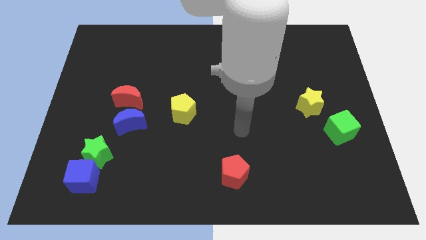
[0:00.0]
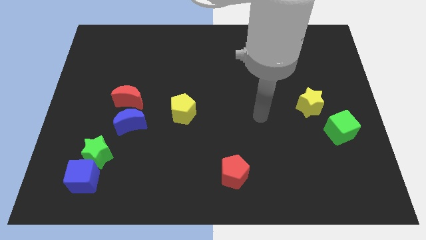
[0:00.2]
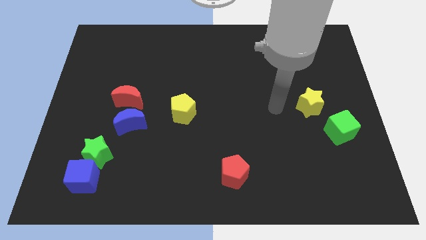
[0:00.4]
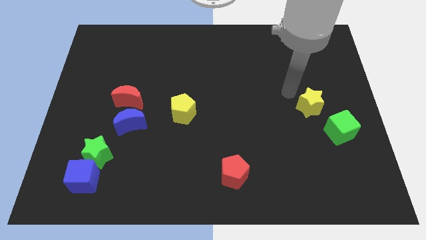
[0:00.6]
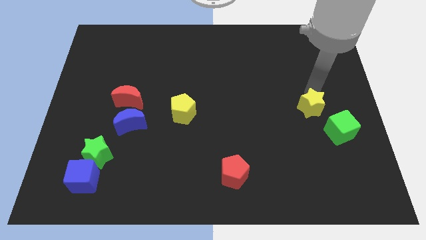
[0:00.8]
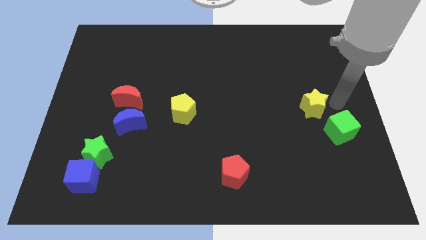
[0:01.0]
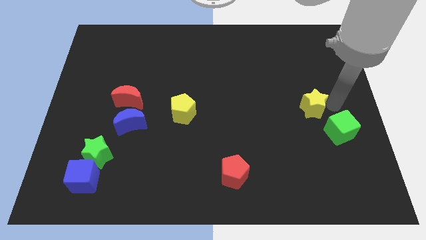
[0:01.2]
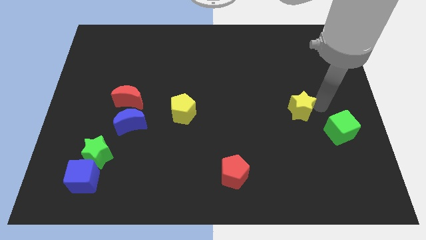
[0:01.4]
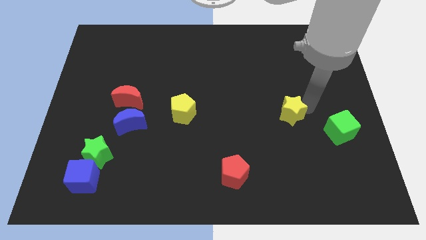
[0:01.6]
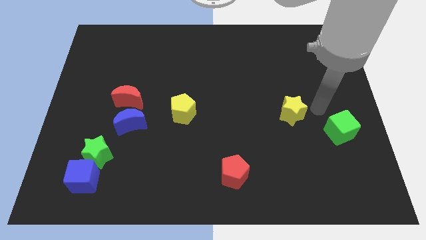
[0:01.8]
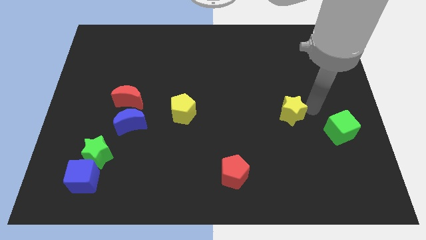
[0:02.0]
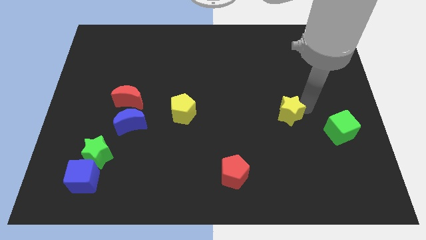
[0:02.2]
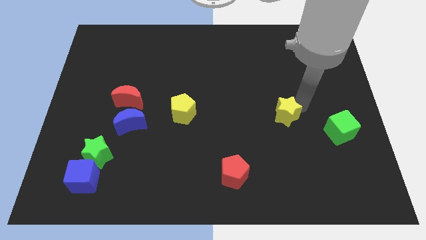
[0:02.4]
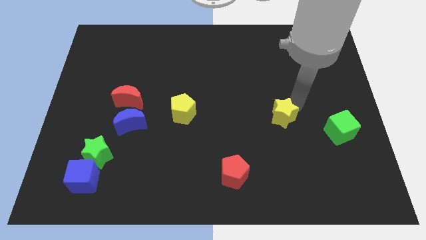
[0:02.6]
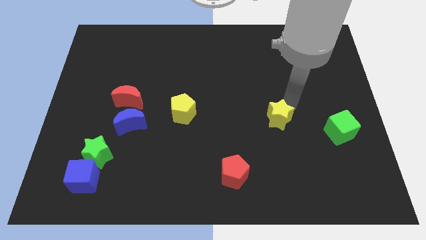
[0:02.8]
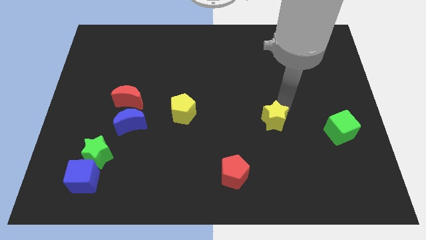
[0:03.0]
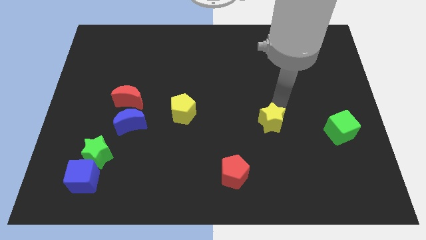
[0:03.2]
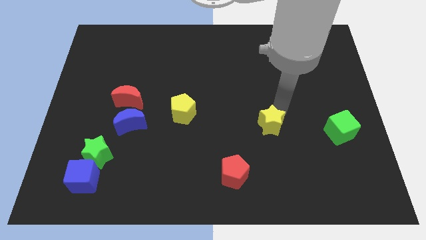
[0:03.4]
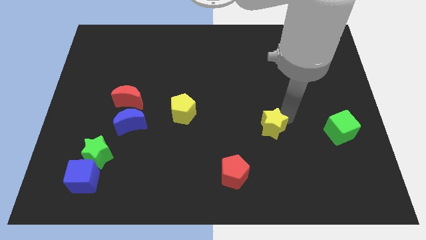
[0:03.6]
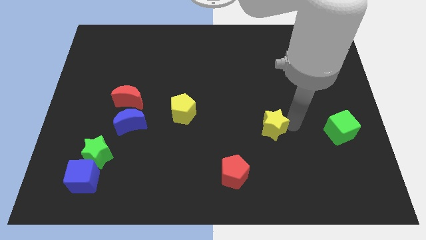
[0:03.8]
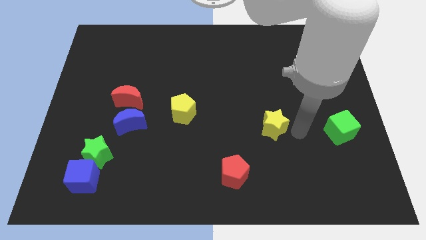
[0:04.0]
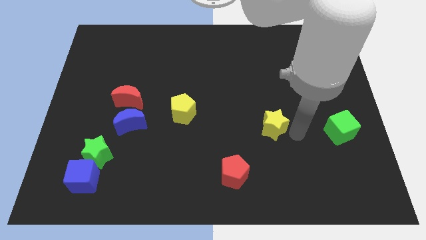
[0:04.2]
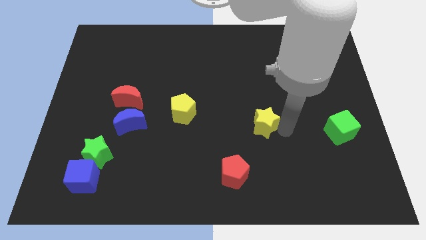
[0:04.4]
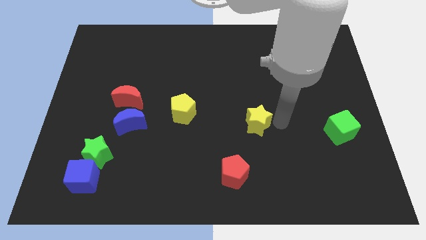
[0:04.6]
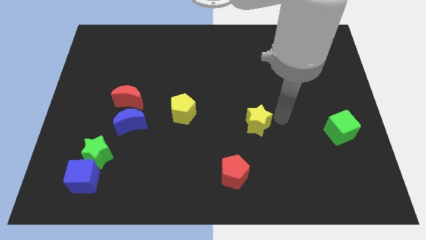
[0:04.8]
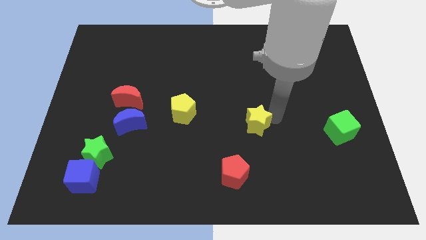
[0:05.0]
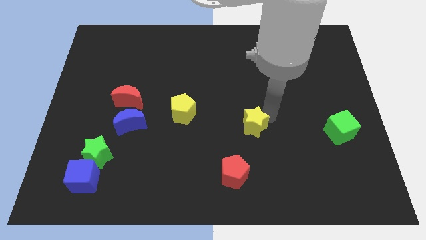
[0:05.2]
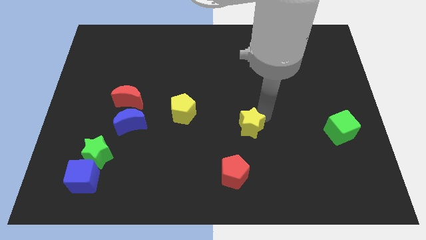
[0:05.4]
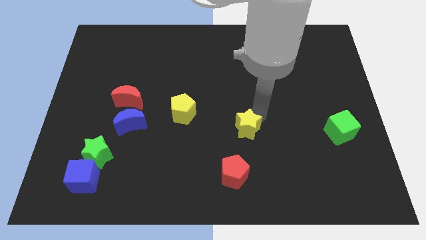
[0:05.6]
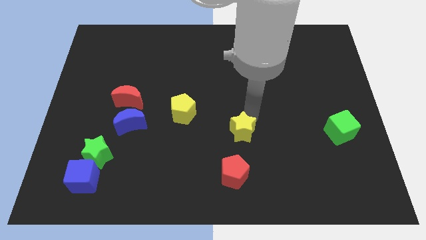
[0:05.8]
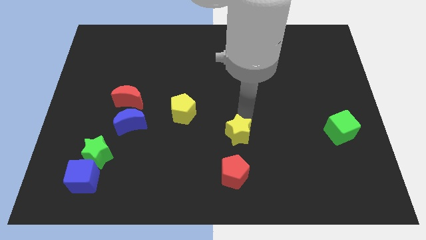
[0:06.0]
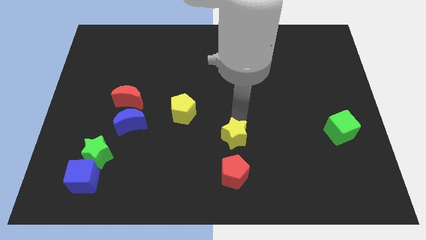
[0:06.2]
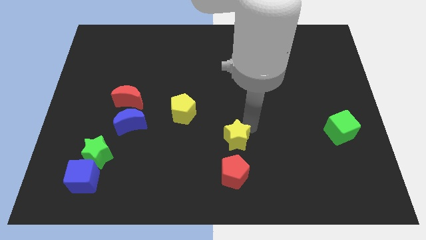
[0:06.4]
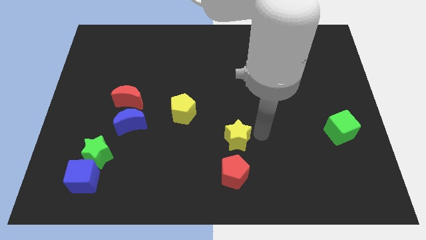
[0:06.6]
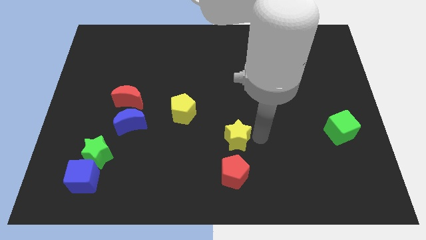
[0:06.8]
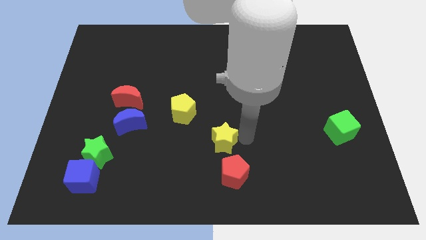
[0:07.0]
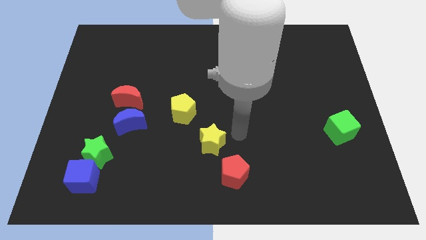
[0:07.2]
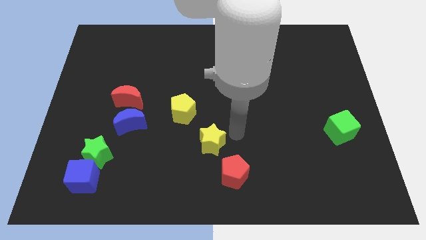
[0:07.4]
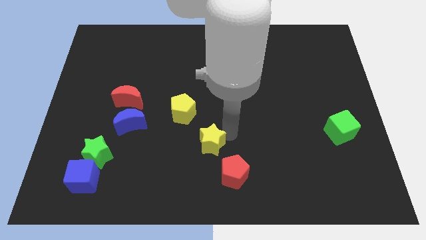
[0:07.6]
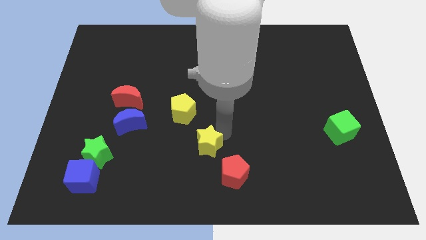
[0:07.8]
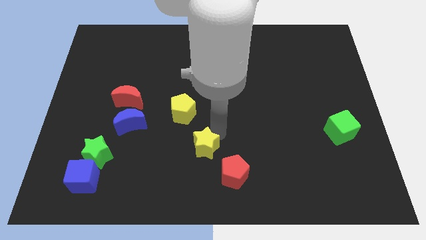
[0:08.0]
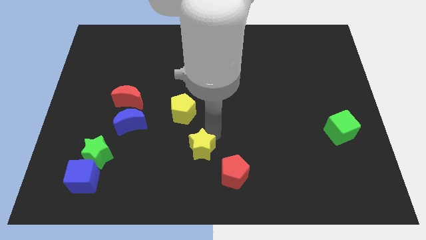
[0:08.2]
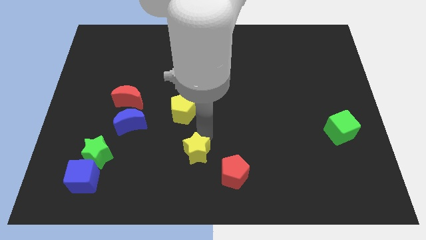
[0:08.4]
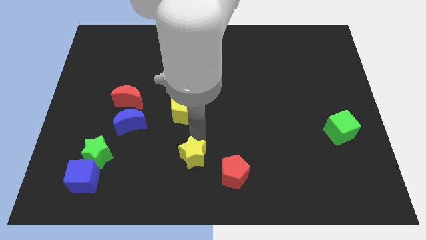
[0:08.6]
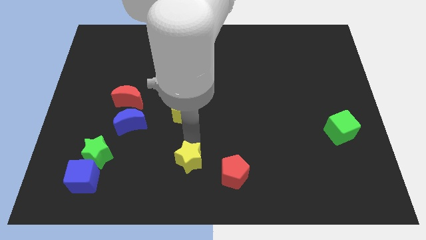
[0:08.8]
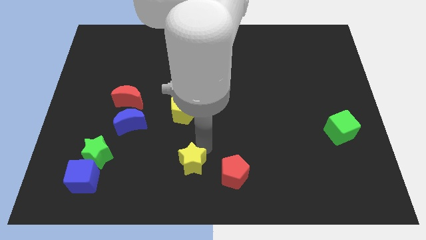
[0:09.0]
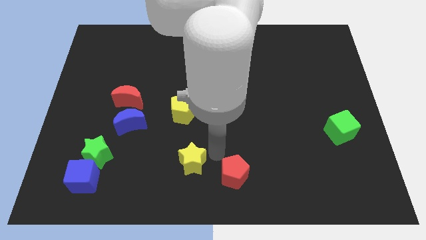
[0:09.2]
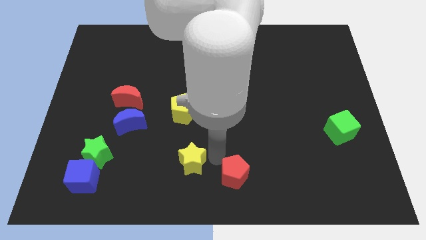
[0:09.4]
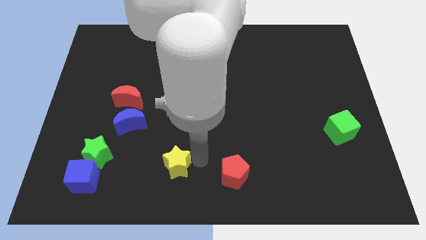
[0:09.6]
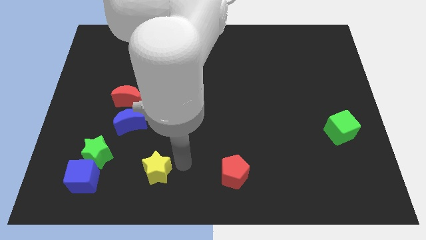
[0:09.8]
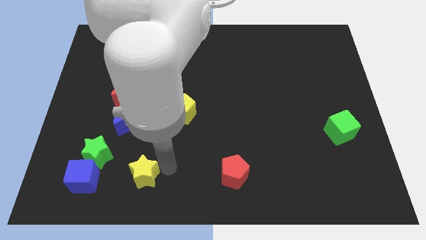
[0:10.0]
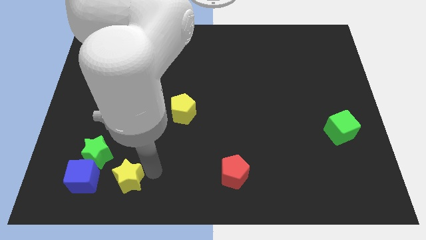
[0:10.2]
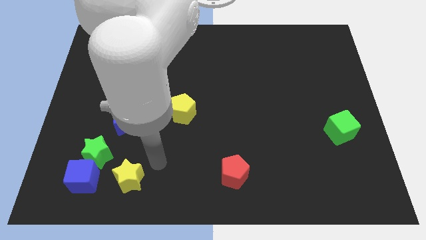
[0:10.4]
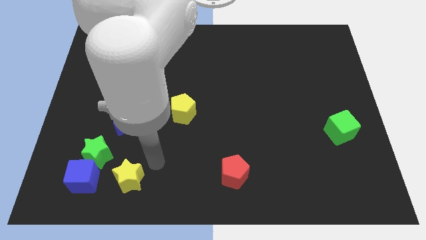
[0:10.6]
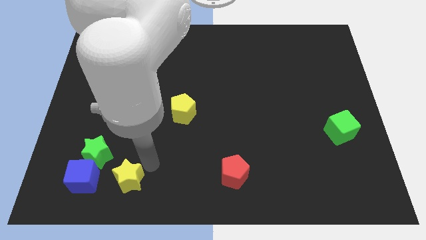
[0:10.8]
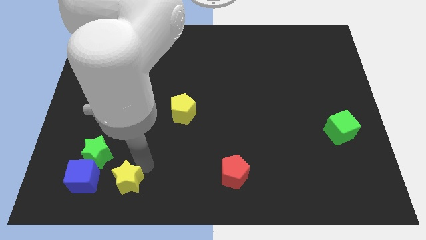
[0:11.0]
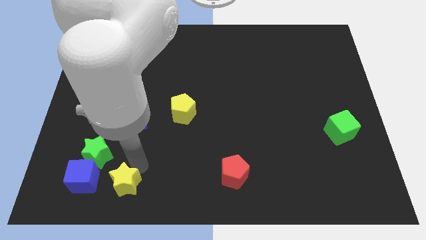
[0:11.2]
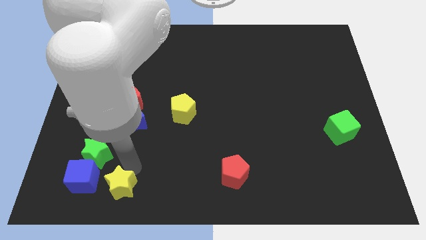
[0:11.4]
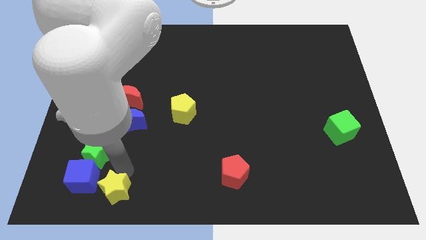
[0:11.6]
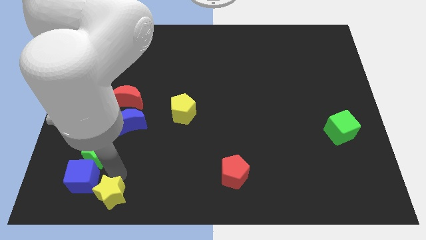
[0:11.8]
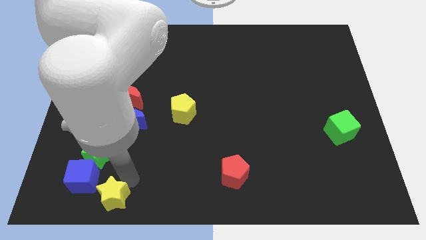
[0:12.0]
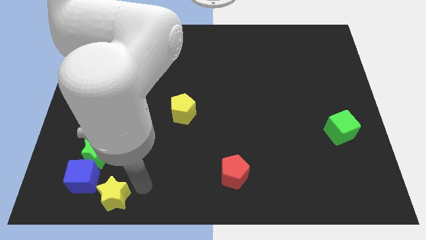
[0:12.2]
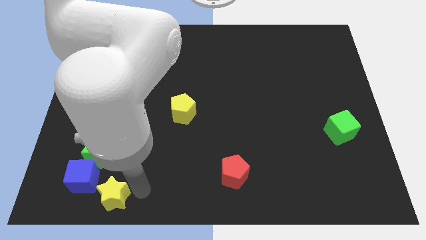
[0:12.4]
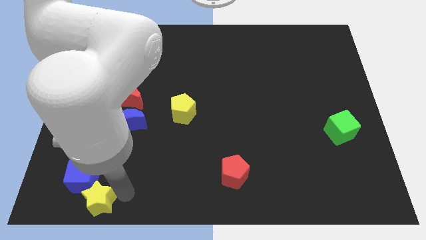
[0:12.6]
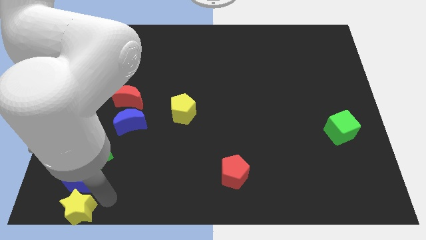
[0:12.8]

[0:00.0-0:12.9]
move the yellow star to the lower left corner

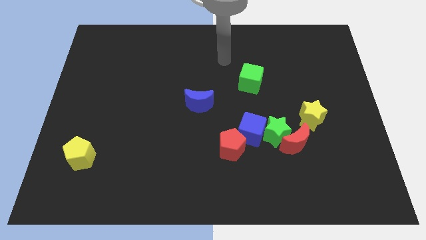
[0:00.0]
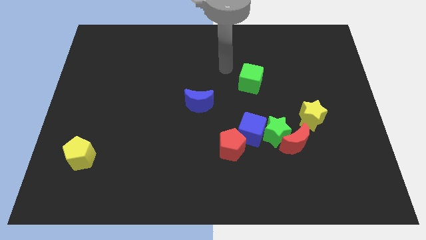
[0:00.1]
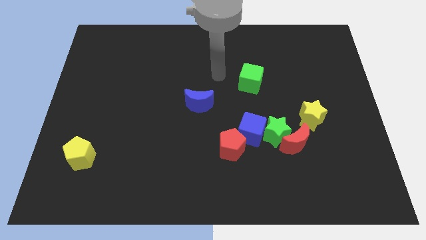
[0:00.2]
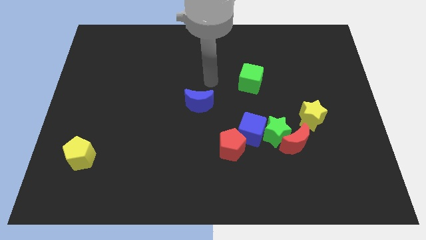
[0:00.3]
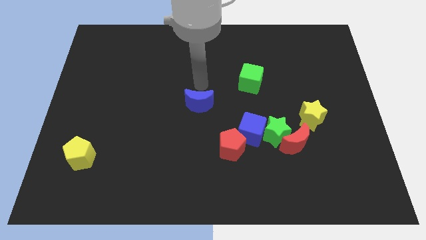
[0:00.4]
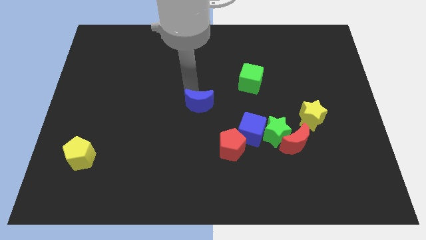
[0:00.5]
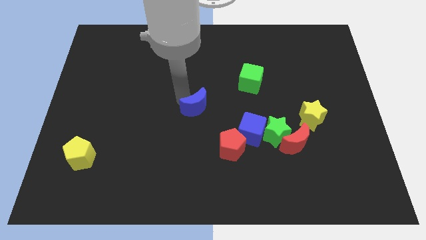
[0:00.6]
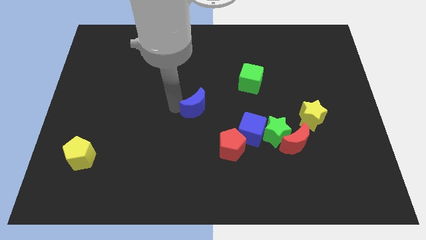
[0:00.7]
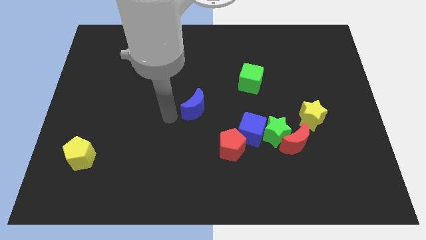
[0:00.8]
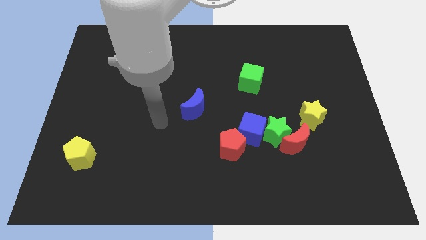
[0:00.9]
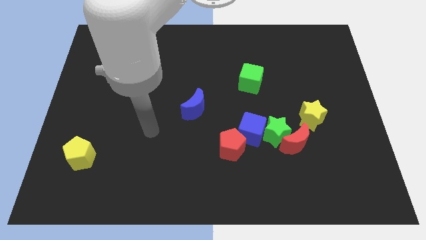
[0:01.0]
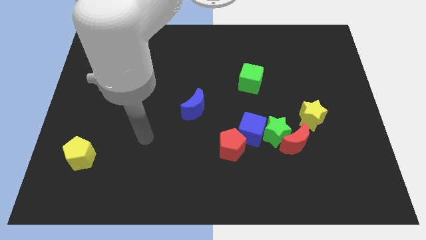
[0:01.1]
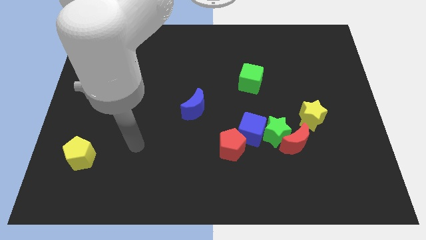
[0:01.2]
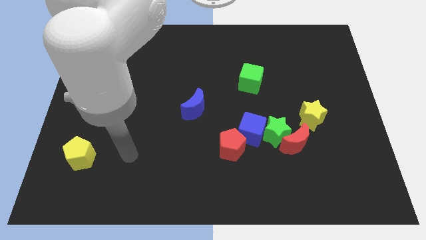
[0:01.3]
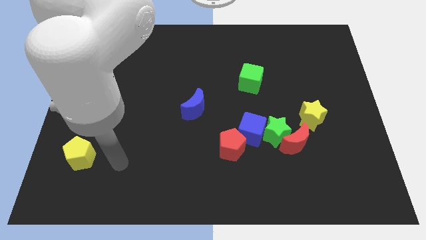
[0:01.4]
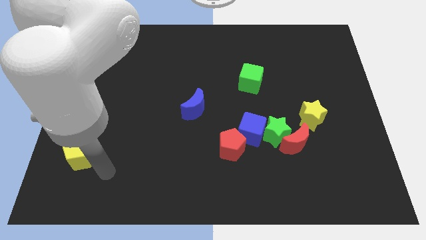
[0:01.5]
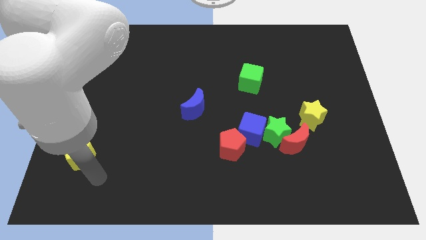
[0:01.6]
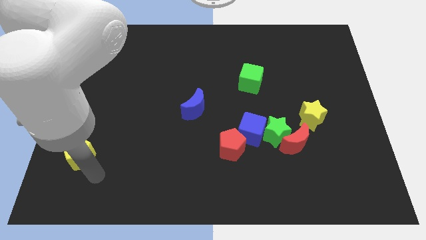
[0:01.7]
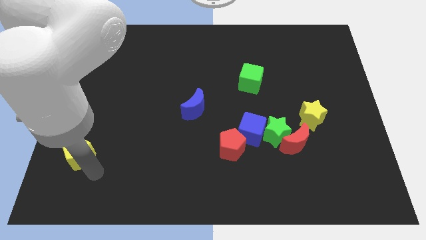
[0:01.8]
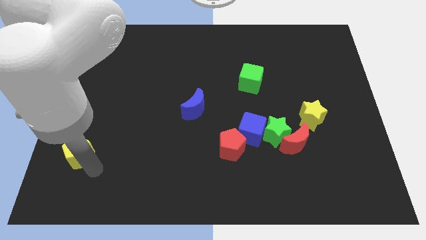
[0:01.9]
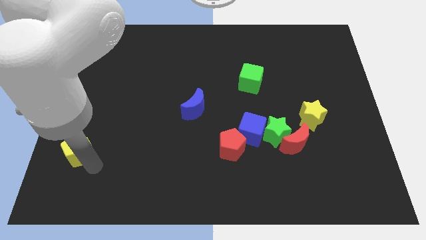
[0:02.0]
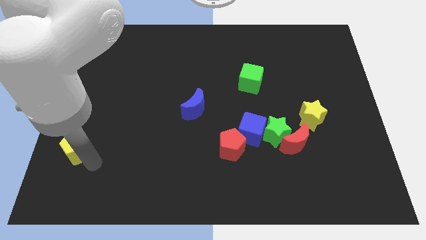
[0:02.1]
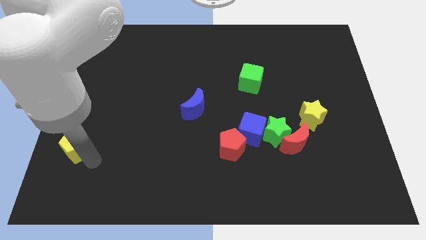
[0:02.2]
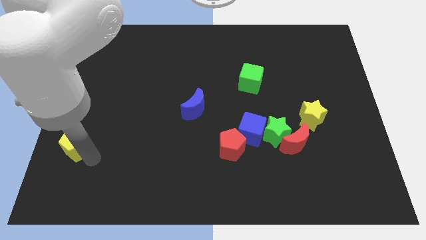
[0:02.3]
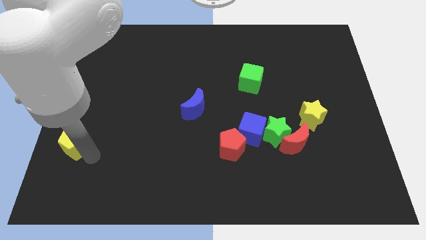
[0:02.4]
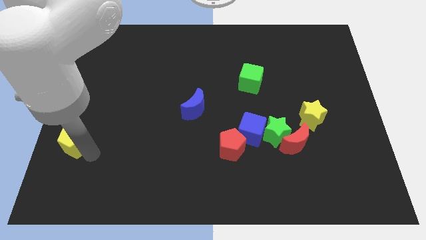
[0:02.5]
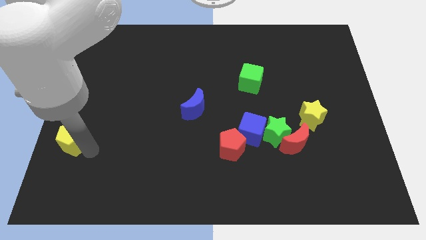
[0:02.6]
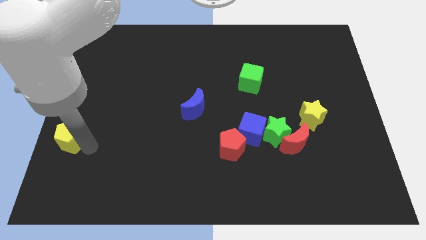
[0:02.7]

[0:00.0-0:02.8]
push the yellow pentagon to the left side of the board
